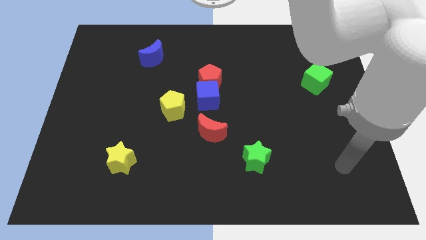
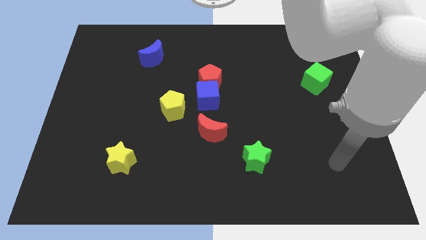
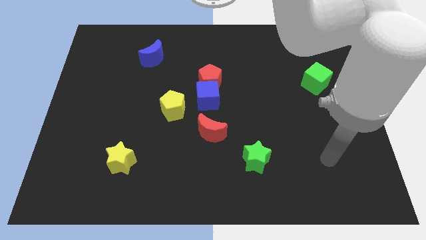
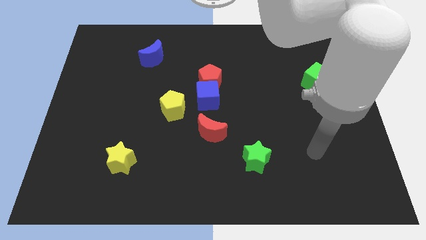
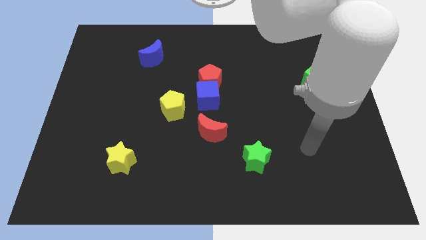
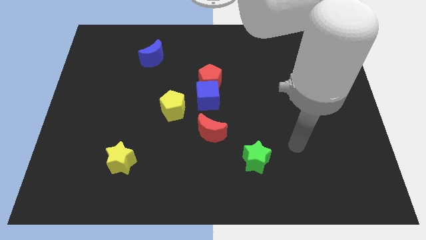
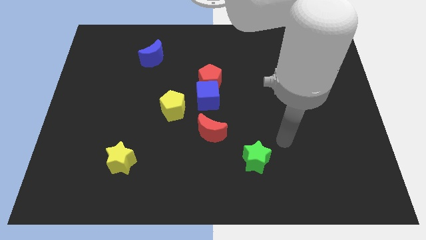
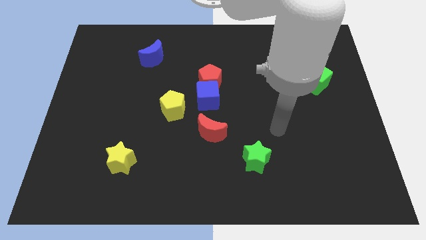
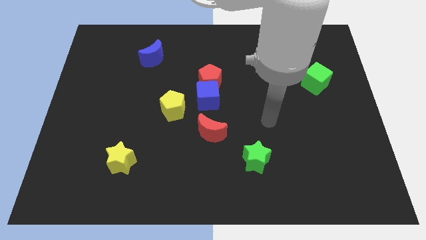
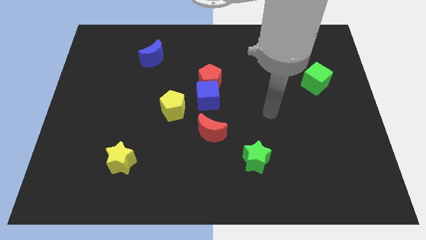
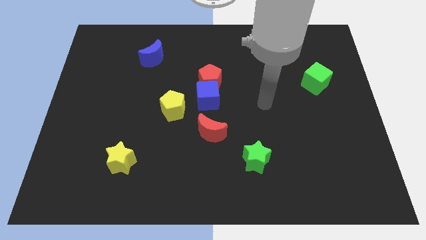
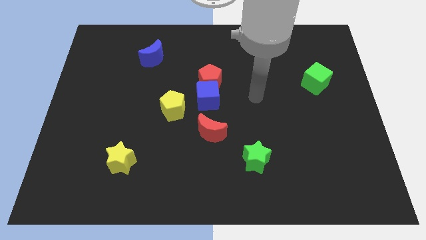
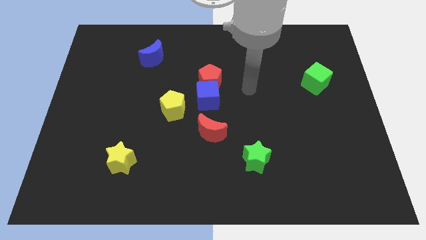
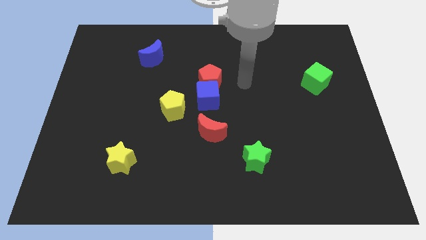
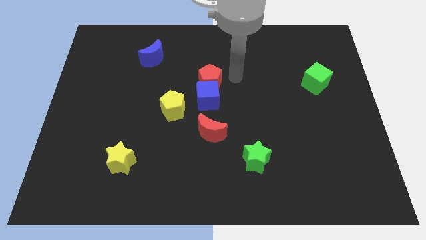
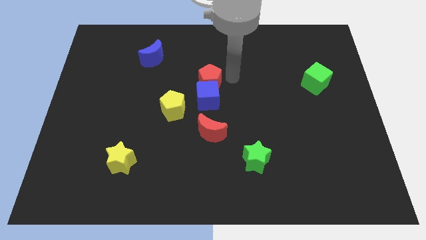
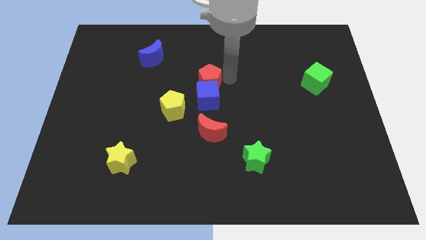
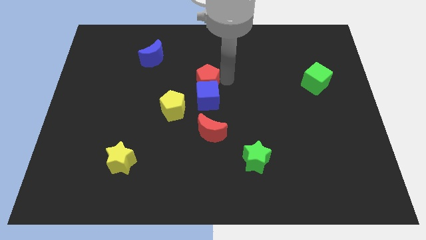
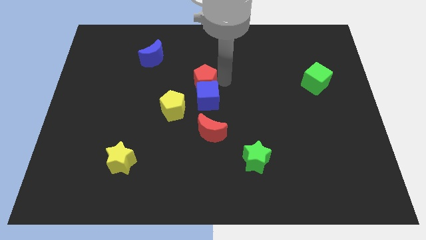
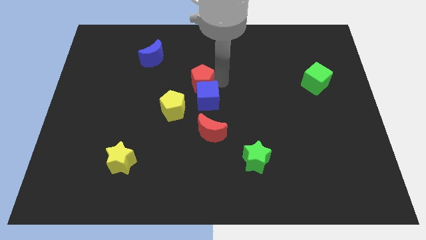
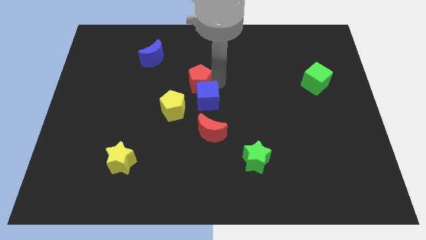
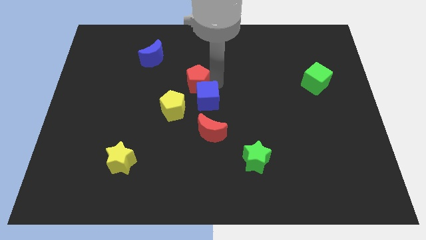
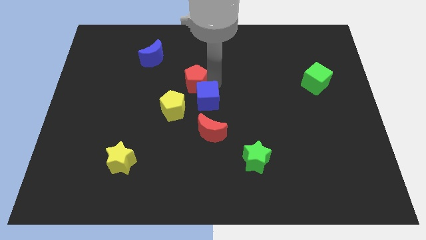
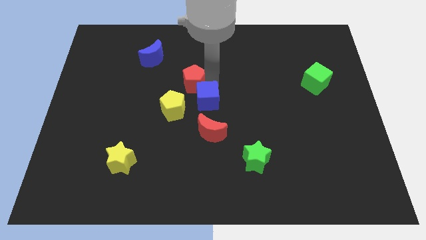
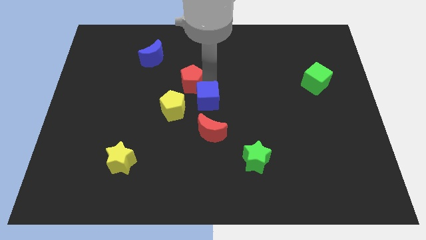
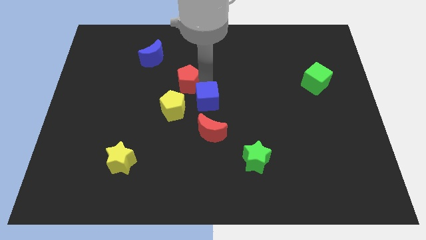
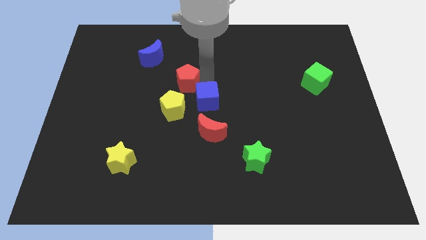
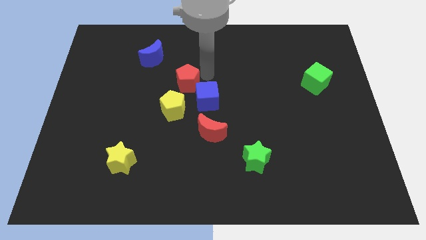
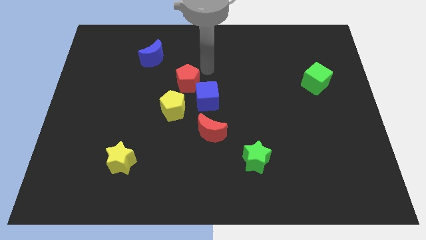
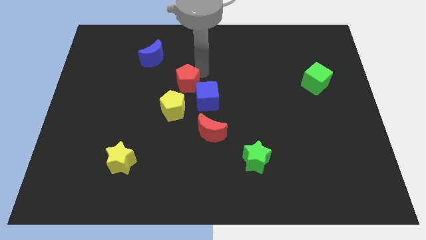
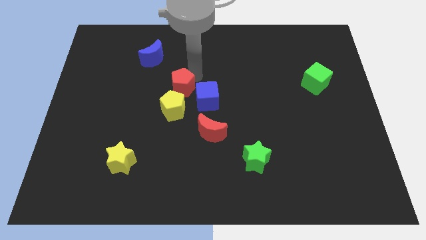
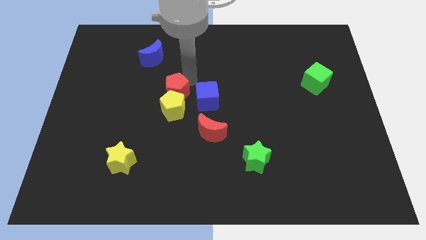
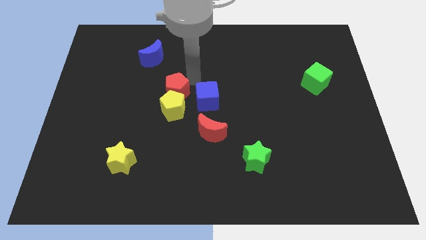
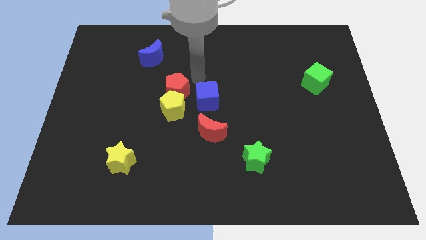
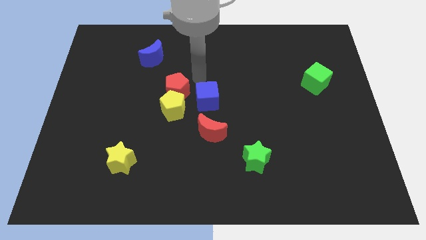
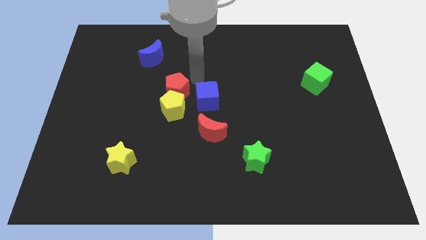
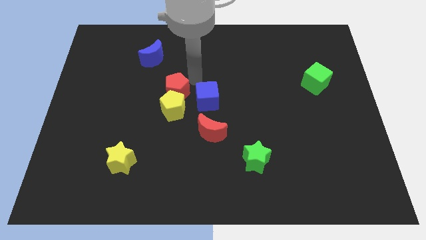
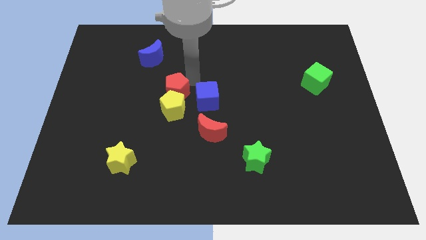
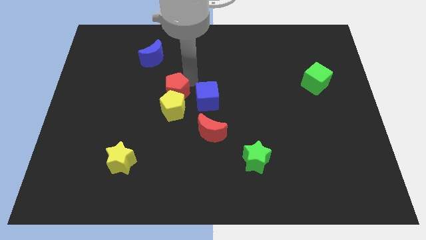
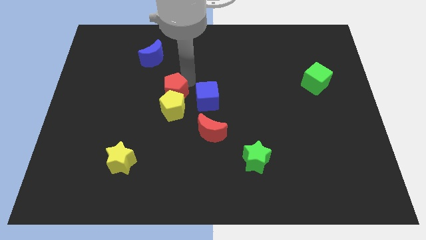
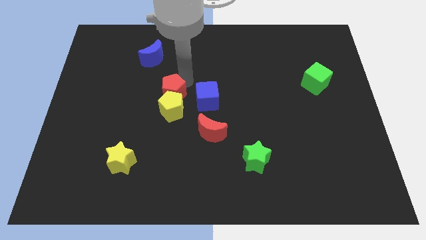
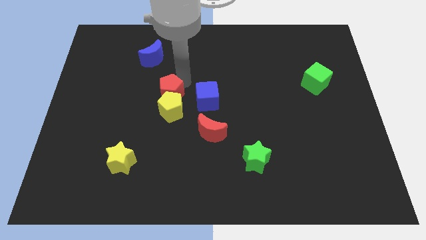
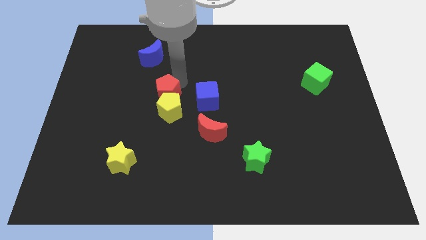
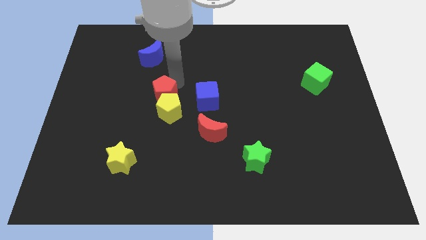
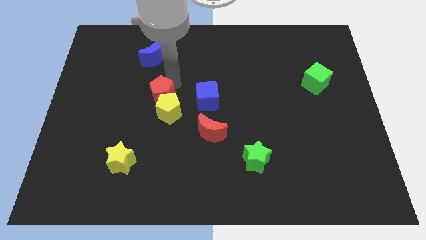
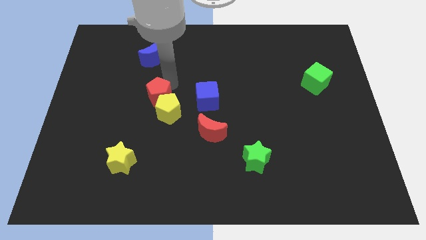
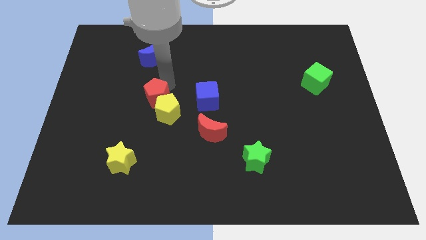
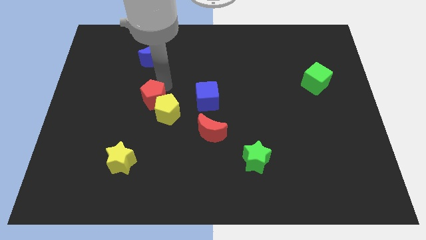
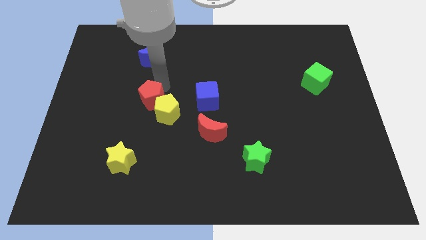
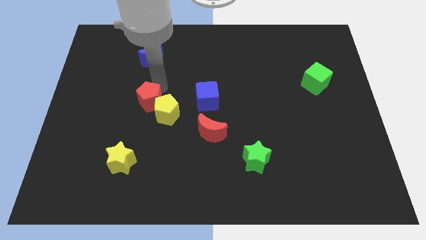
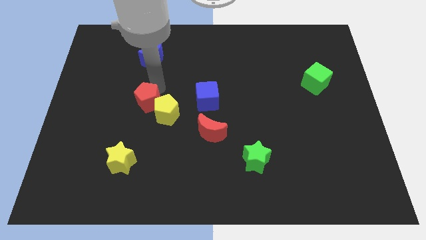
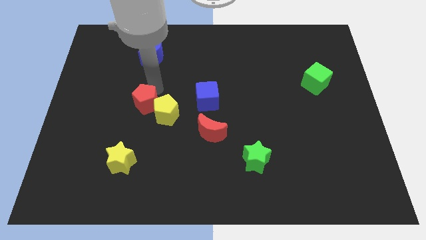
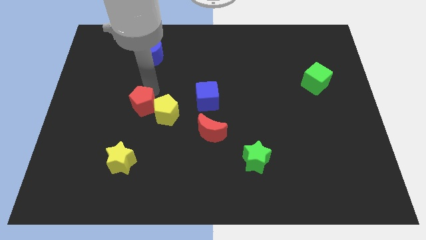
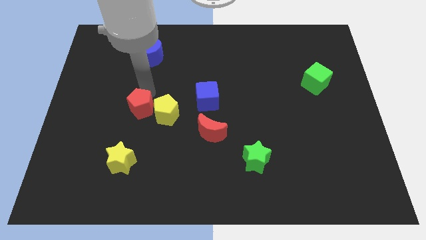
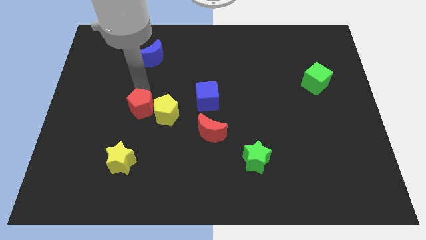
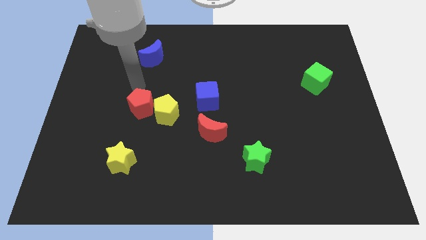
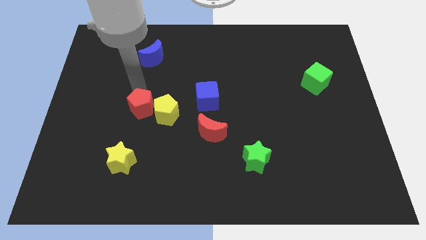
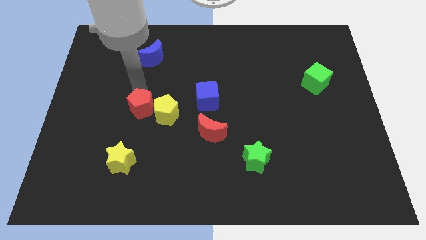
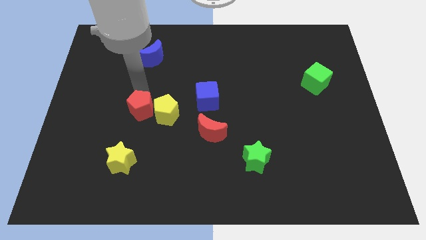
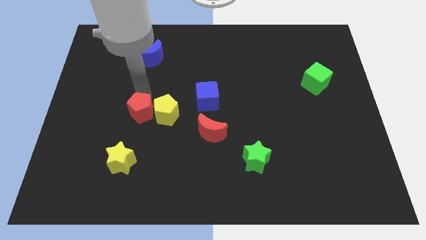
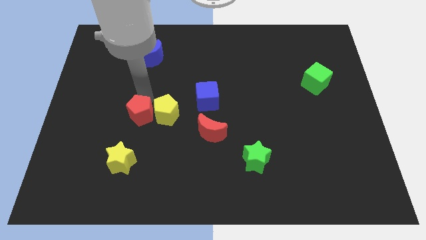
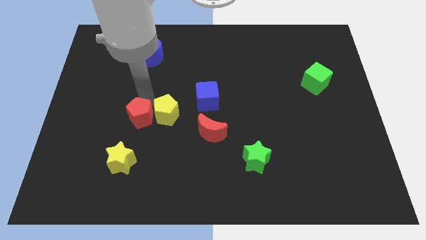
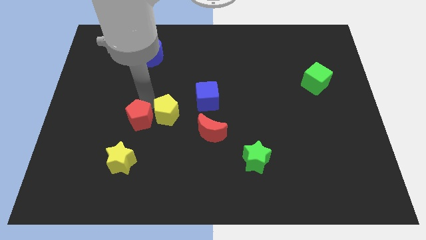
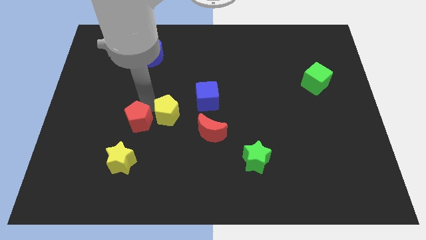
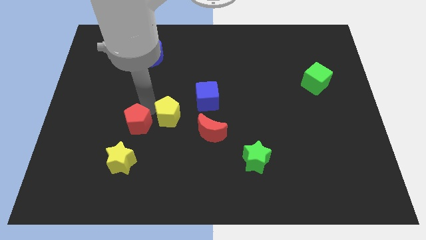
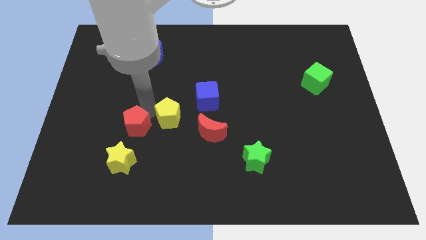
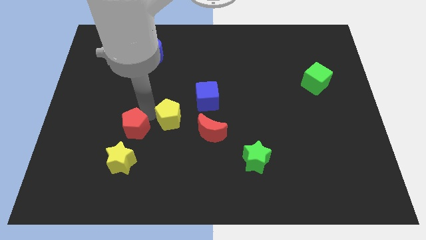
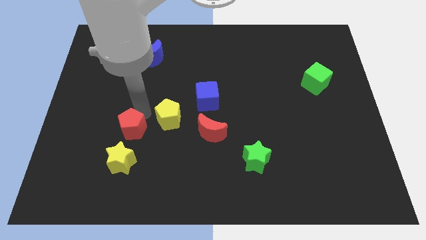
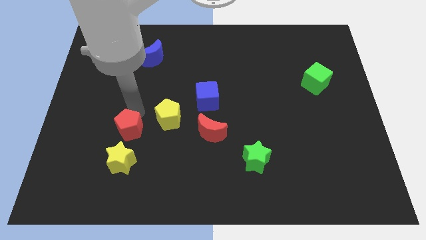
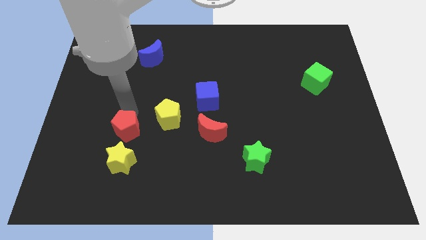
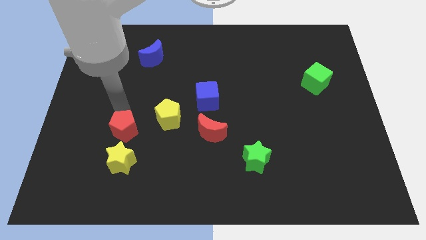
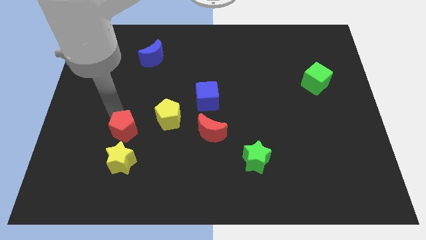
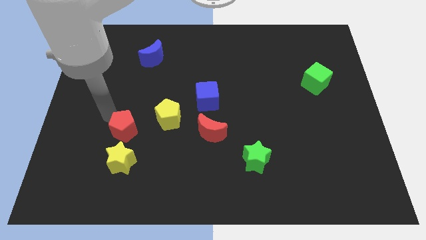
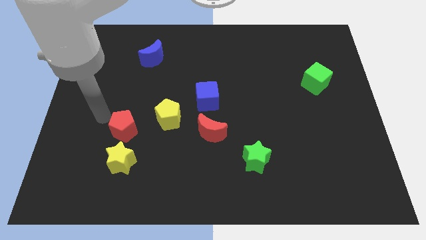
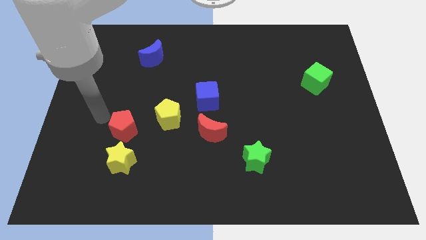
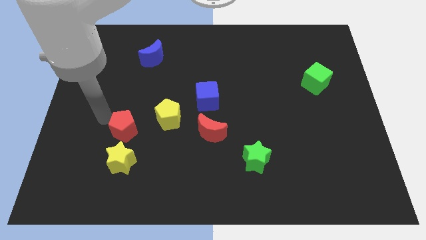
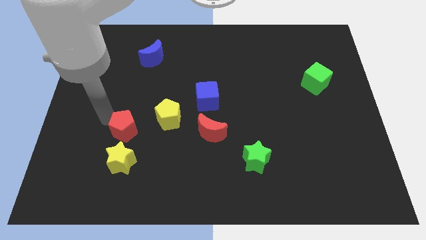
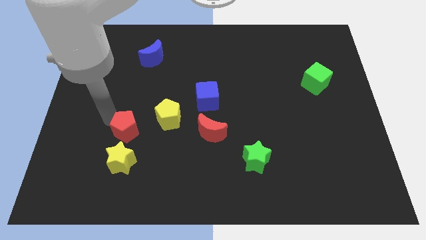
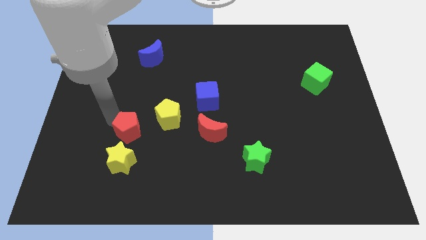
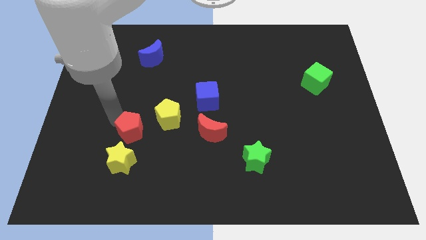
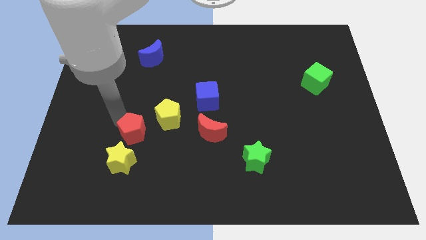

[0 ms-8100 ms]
move the red pentagon to the top right side of the yellow star
